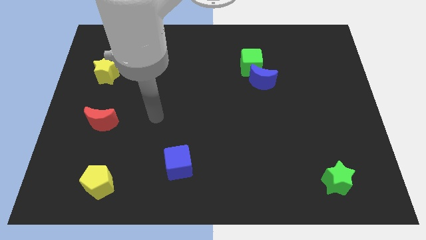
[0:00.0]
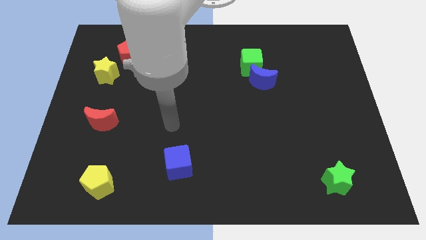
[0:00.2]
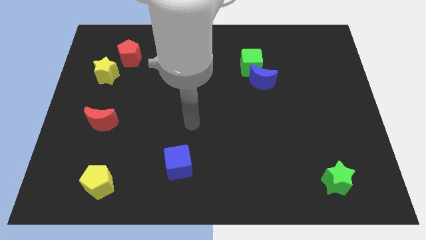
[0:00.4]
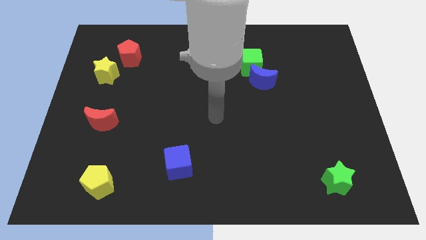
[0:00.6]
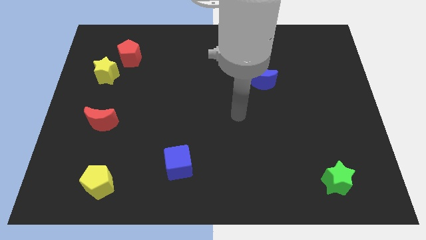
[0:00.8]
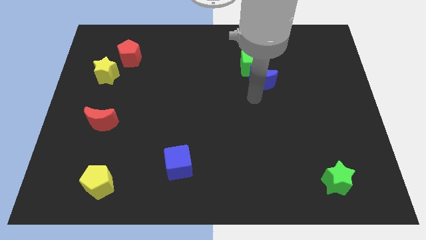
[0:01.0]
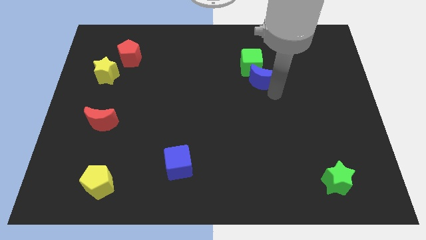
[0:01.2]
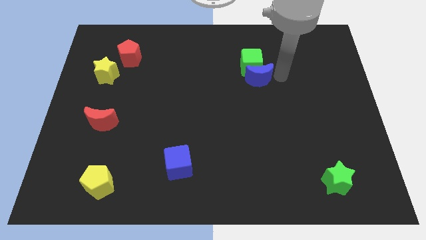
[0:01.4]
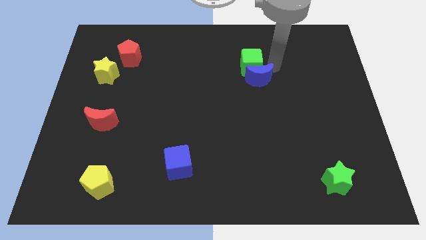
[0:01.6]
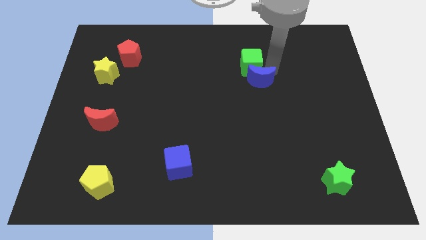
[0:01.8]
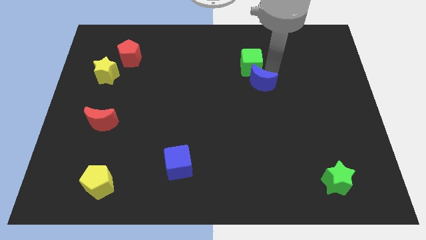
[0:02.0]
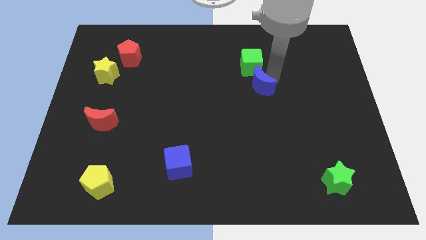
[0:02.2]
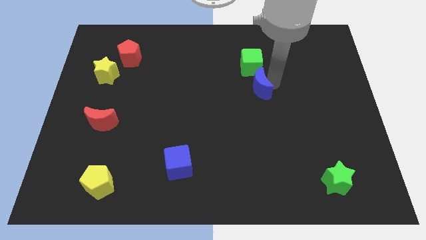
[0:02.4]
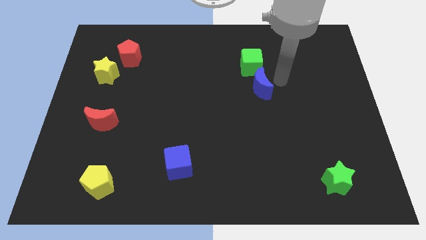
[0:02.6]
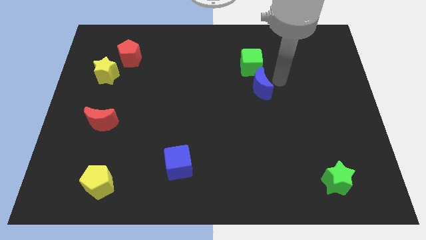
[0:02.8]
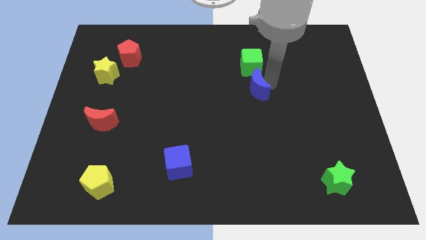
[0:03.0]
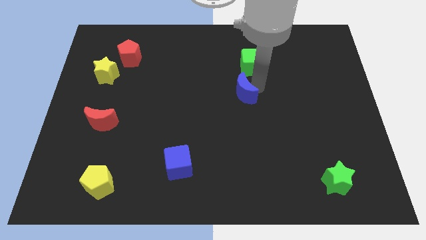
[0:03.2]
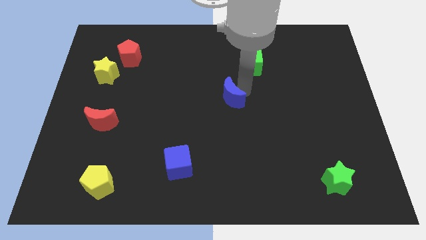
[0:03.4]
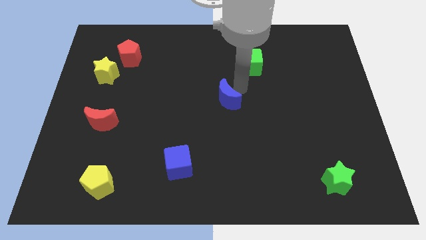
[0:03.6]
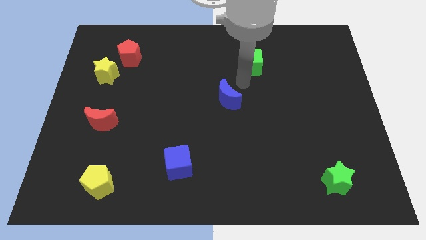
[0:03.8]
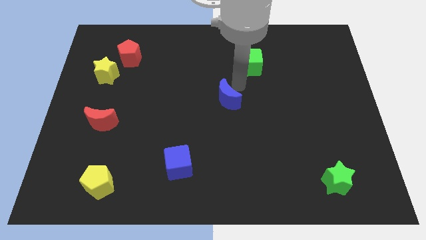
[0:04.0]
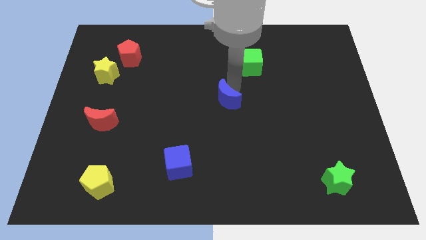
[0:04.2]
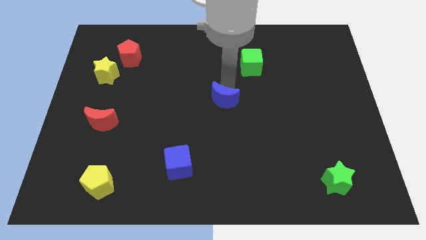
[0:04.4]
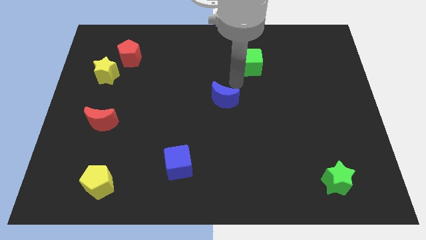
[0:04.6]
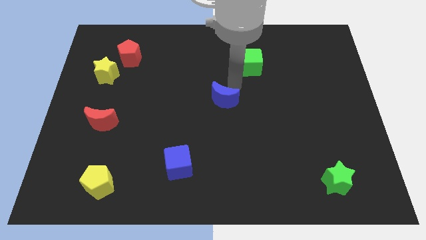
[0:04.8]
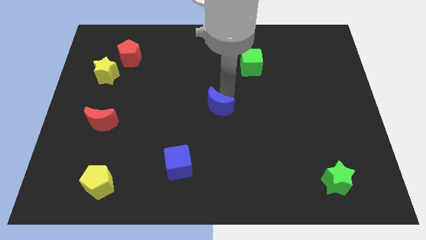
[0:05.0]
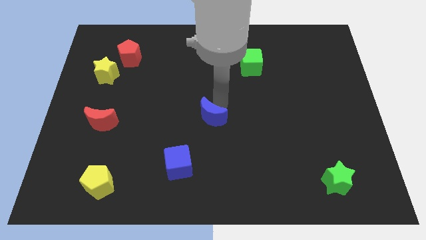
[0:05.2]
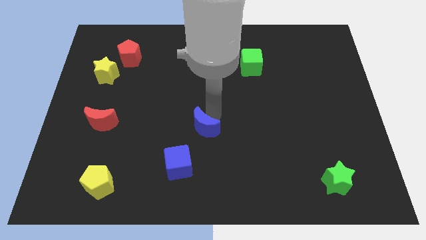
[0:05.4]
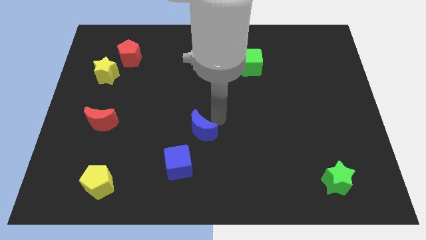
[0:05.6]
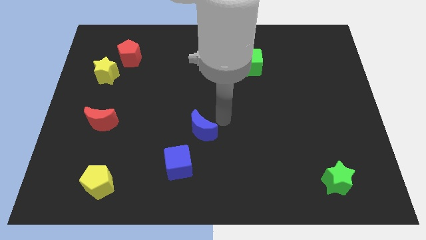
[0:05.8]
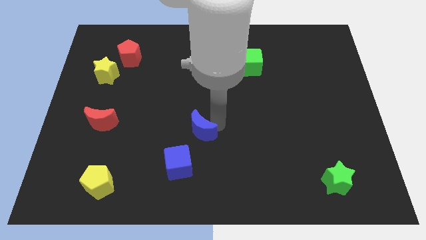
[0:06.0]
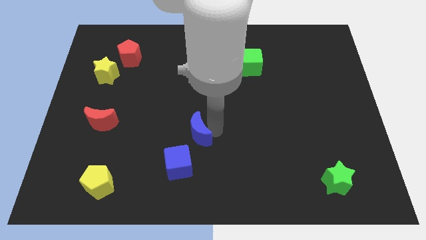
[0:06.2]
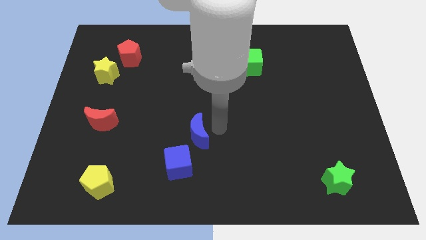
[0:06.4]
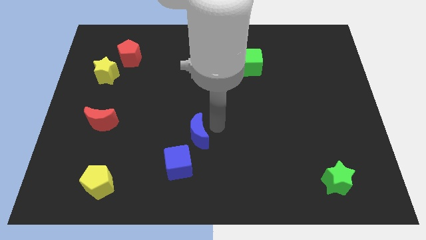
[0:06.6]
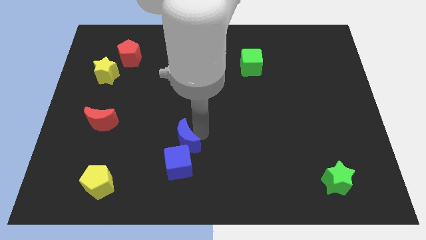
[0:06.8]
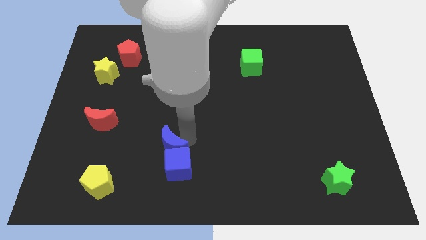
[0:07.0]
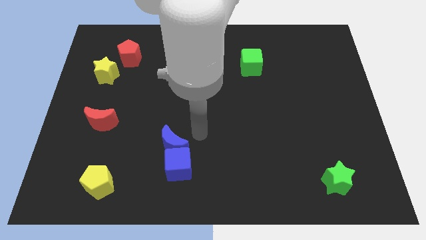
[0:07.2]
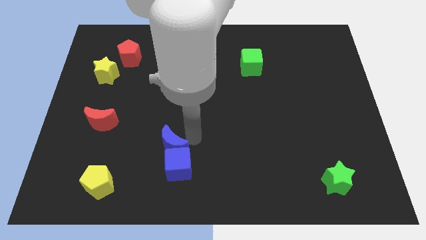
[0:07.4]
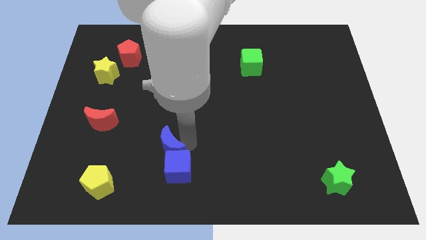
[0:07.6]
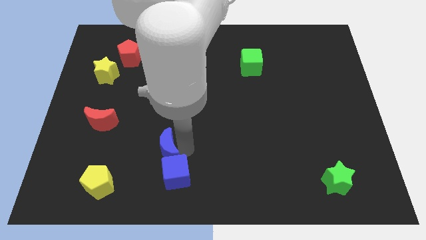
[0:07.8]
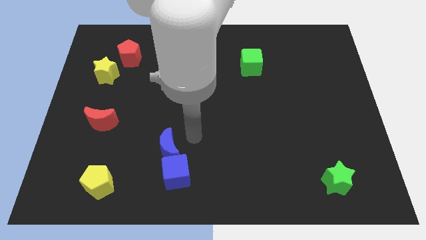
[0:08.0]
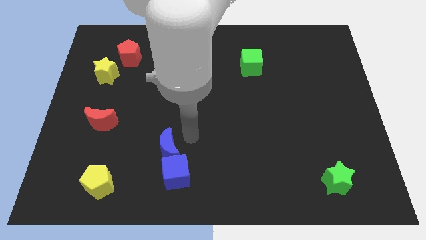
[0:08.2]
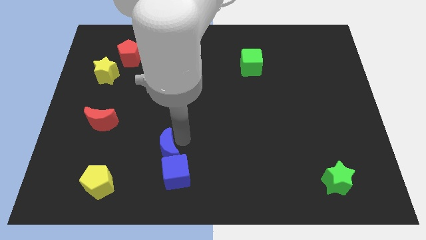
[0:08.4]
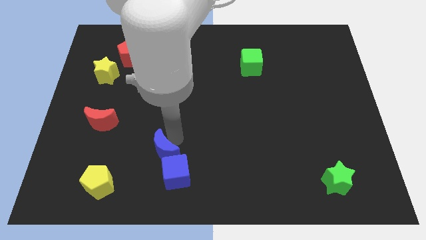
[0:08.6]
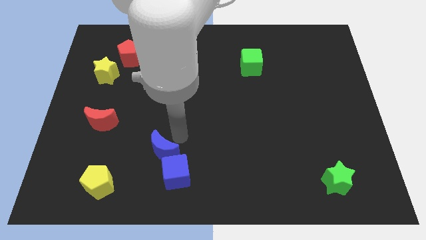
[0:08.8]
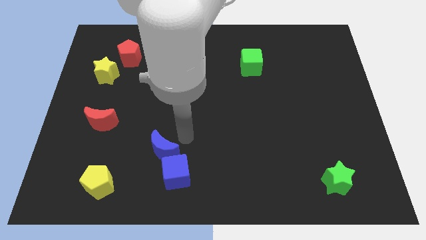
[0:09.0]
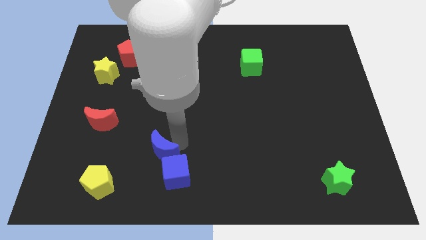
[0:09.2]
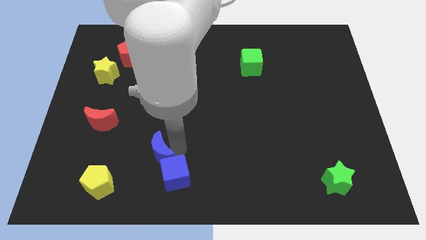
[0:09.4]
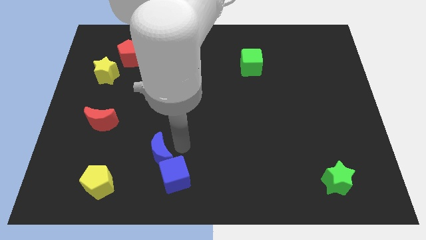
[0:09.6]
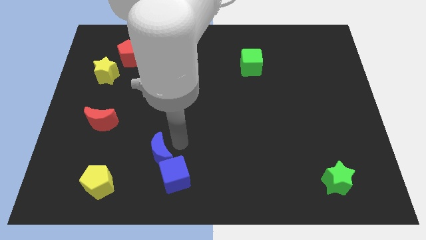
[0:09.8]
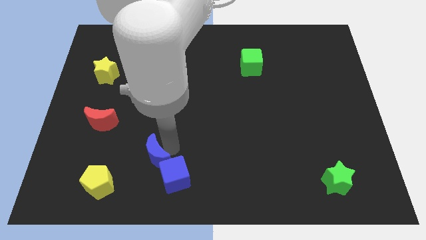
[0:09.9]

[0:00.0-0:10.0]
slide the blue moon just left of the blue cube

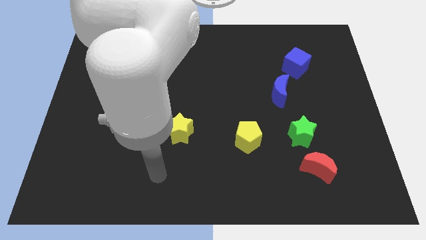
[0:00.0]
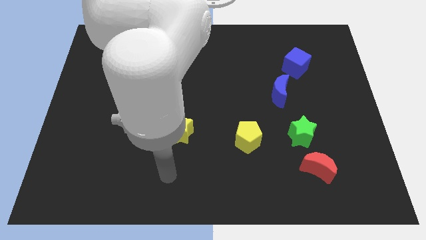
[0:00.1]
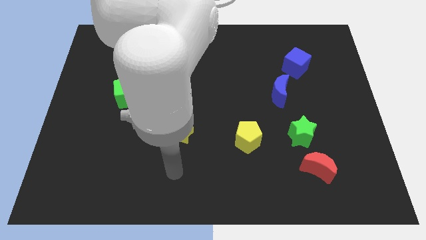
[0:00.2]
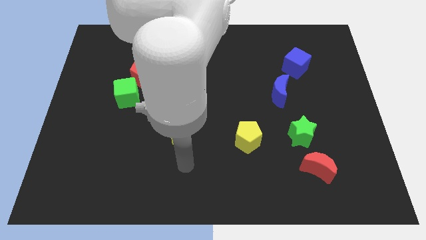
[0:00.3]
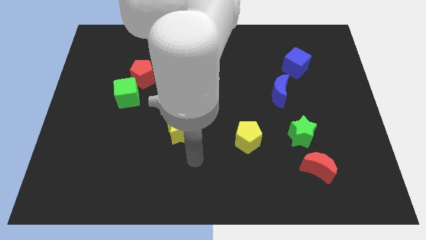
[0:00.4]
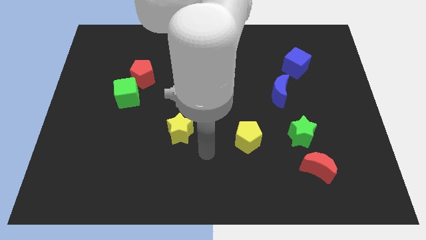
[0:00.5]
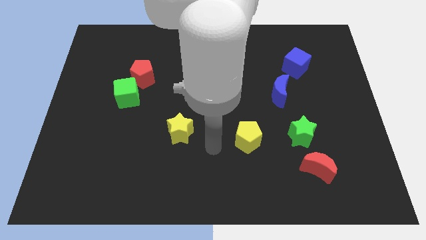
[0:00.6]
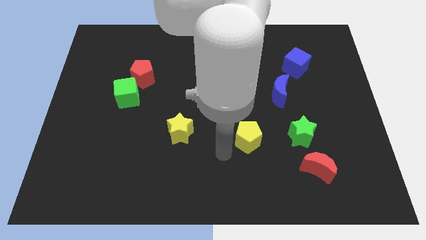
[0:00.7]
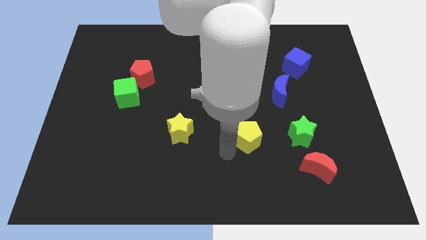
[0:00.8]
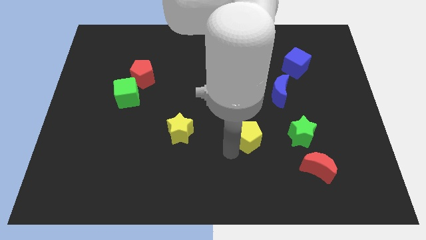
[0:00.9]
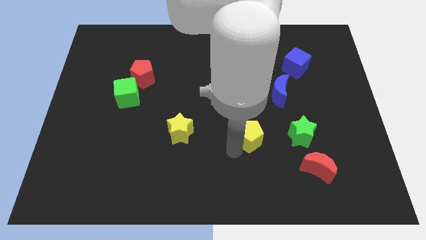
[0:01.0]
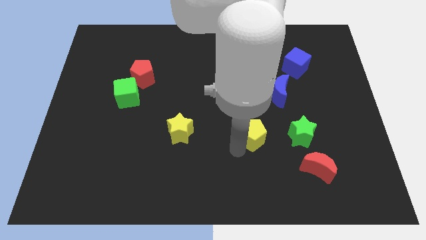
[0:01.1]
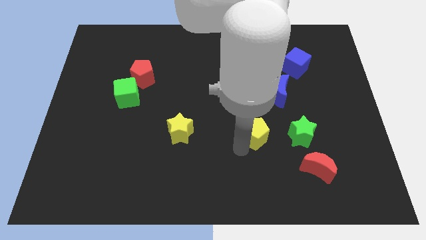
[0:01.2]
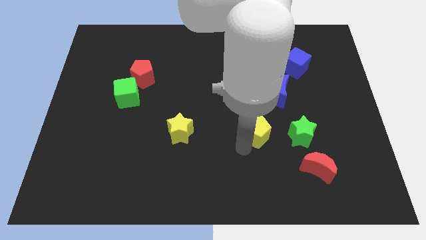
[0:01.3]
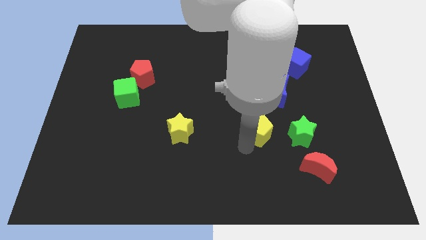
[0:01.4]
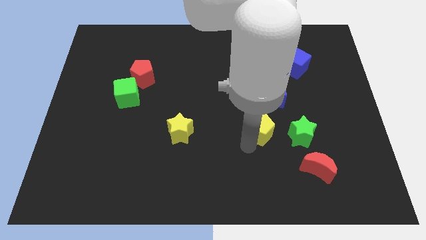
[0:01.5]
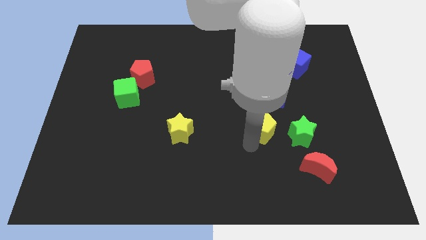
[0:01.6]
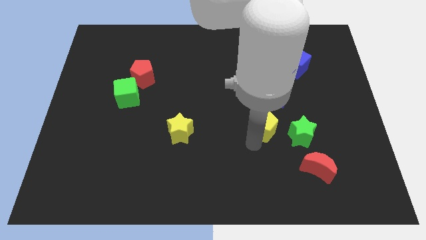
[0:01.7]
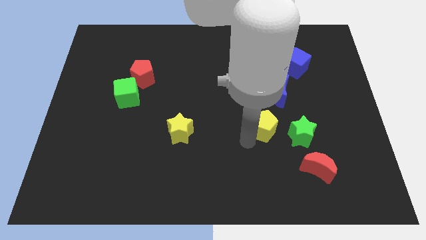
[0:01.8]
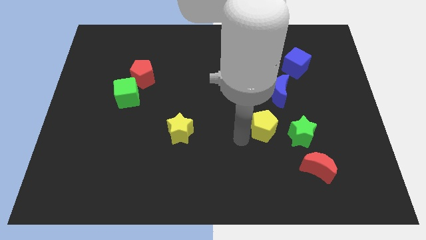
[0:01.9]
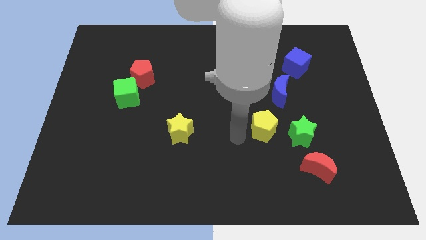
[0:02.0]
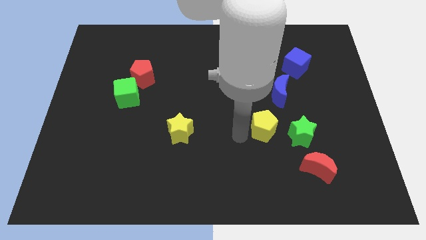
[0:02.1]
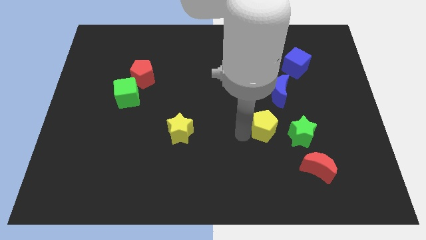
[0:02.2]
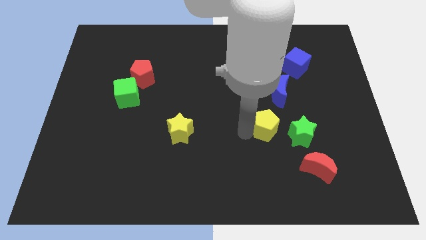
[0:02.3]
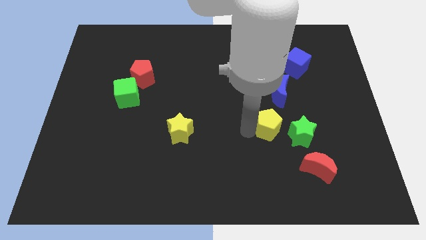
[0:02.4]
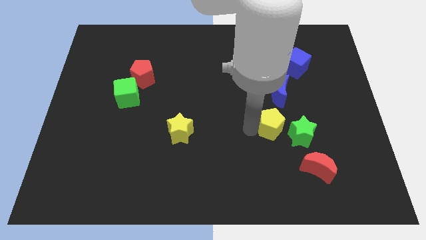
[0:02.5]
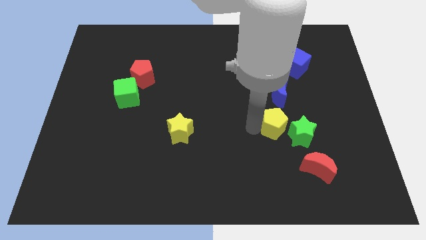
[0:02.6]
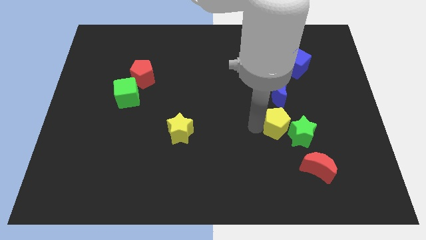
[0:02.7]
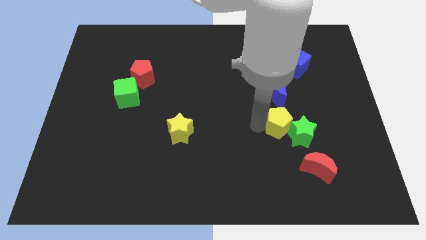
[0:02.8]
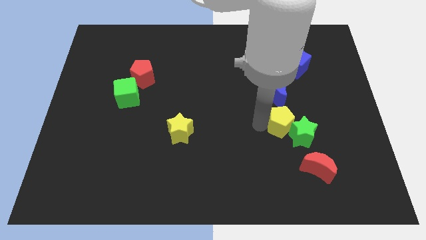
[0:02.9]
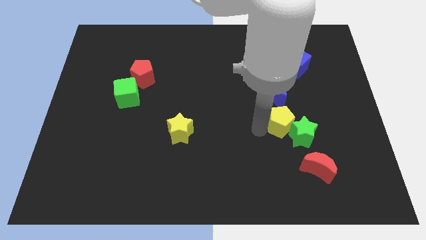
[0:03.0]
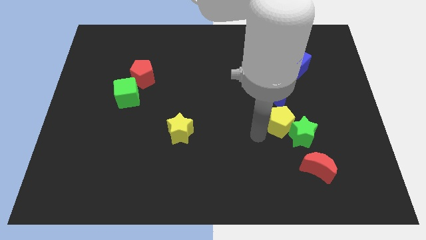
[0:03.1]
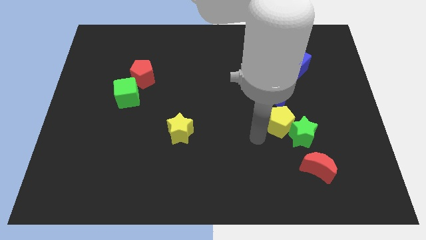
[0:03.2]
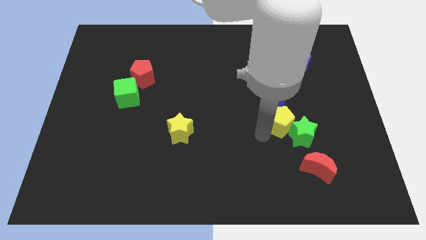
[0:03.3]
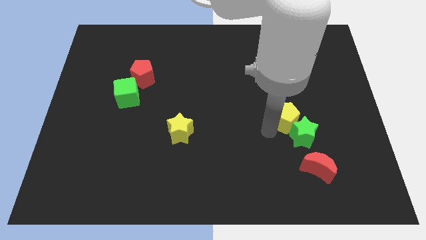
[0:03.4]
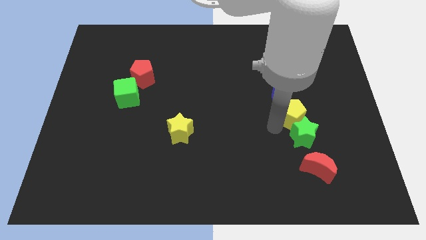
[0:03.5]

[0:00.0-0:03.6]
put the yellow pentagon to the bottom right side of the blue moon
